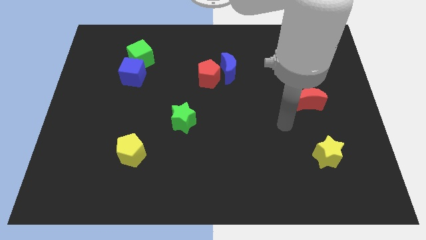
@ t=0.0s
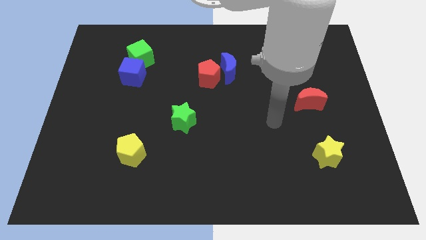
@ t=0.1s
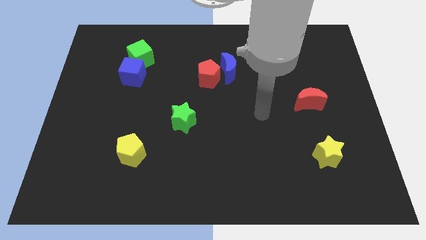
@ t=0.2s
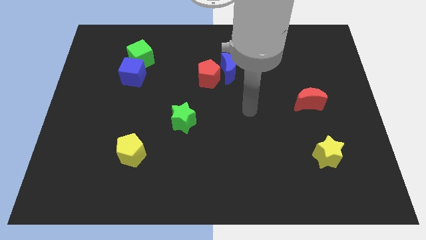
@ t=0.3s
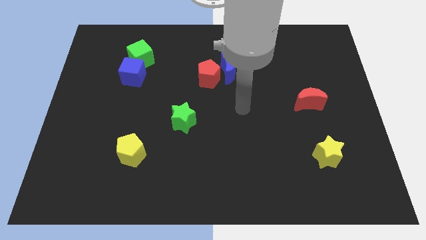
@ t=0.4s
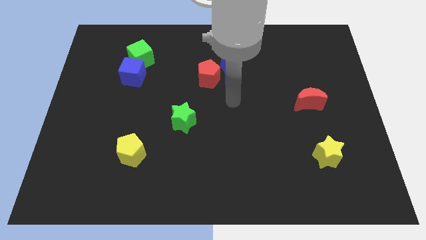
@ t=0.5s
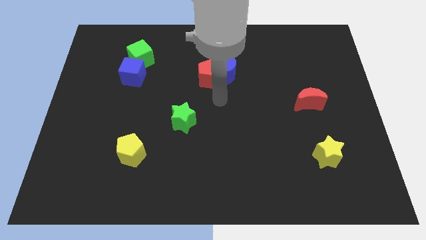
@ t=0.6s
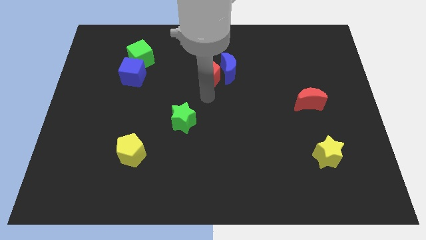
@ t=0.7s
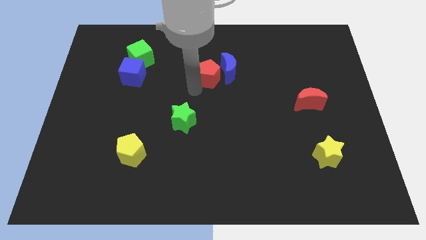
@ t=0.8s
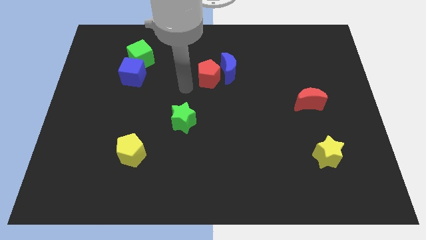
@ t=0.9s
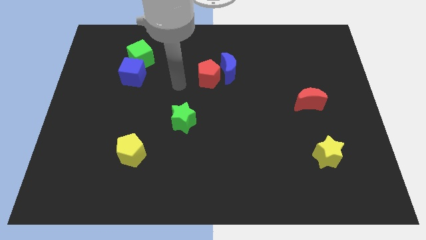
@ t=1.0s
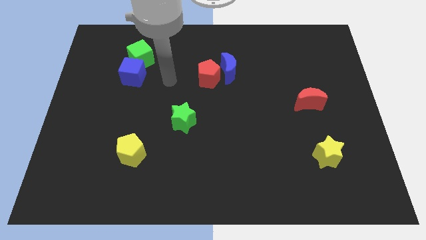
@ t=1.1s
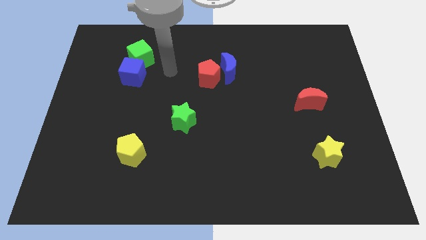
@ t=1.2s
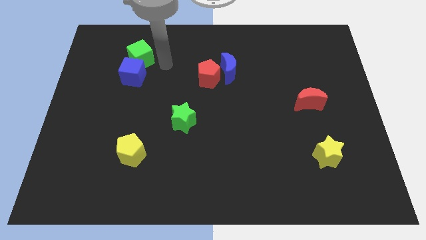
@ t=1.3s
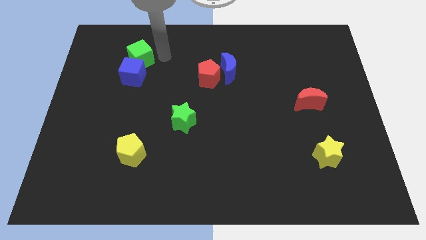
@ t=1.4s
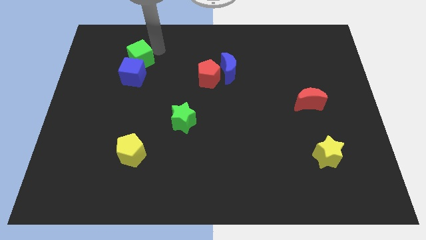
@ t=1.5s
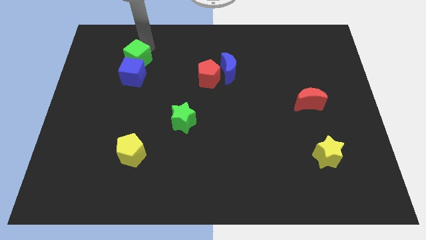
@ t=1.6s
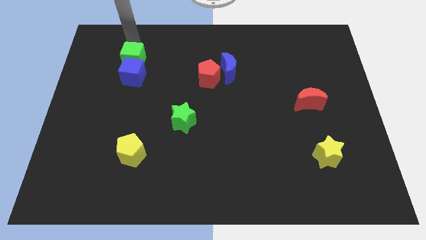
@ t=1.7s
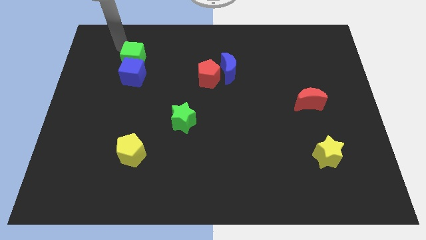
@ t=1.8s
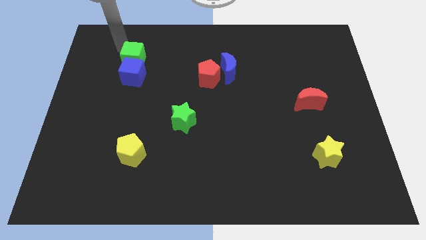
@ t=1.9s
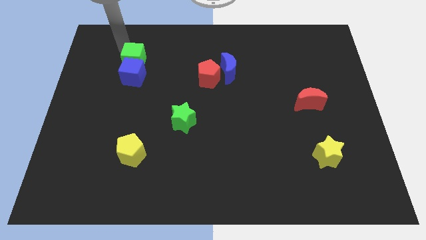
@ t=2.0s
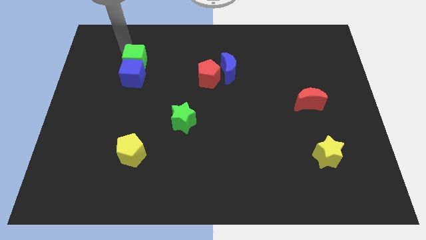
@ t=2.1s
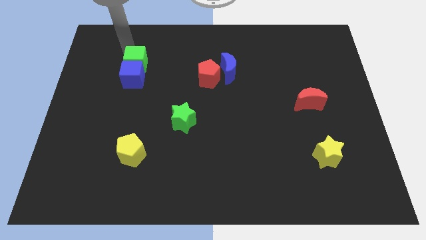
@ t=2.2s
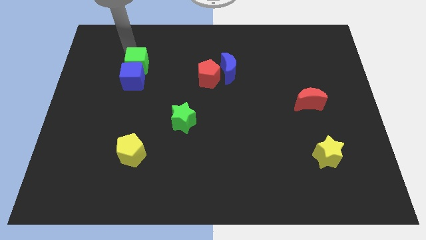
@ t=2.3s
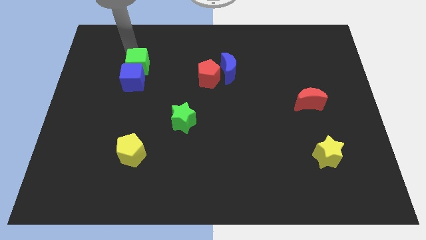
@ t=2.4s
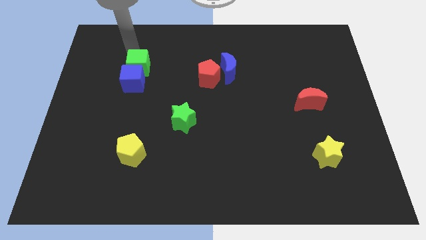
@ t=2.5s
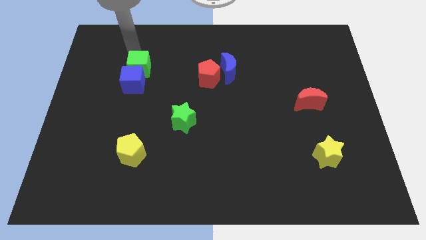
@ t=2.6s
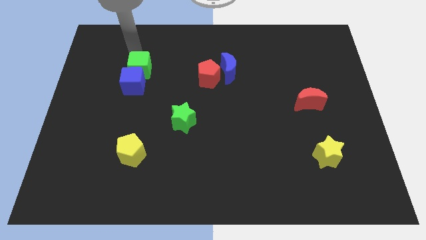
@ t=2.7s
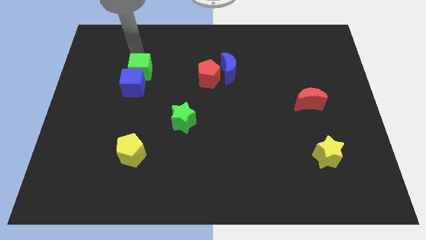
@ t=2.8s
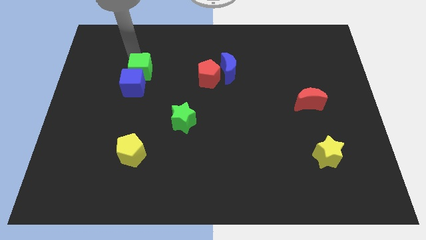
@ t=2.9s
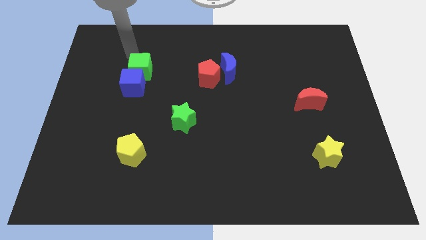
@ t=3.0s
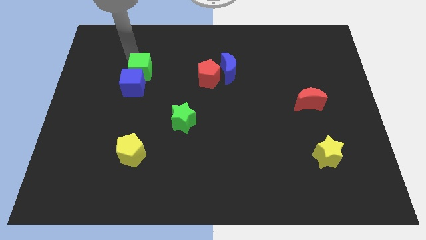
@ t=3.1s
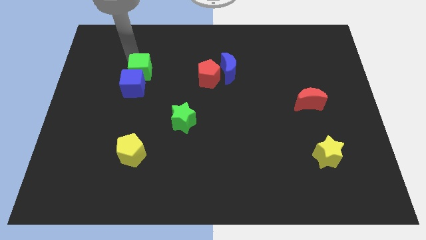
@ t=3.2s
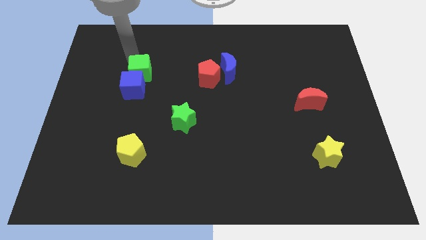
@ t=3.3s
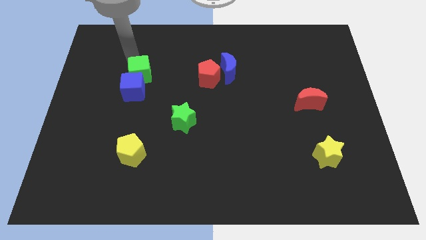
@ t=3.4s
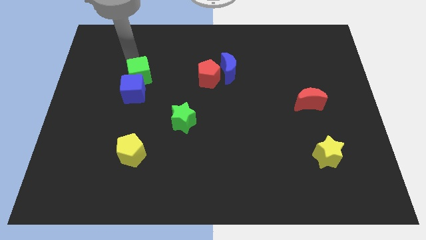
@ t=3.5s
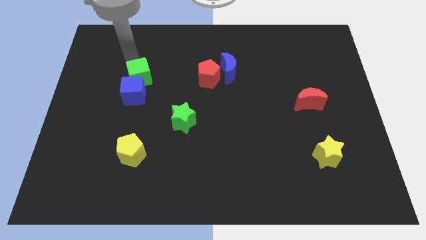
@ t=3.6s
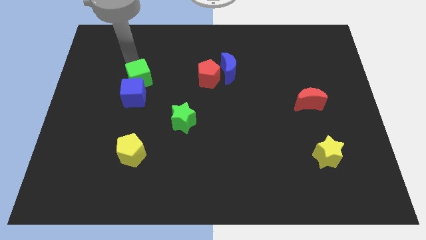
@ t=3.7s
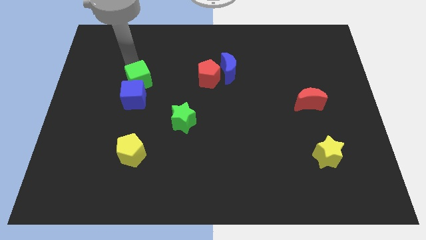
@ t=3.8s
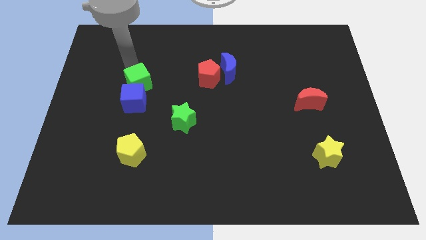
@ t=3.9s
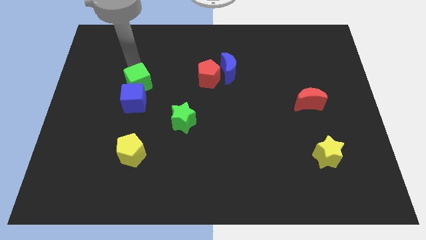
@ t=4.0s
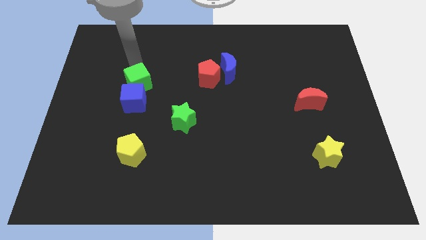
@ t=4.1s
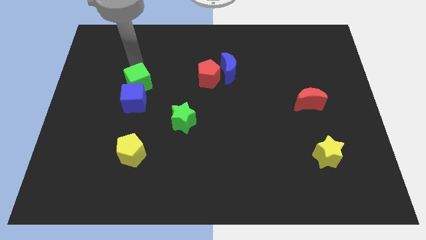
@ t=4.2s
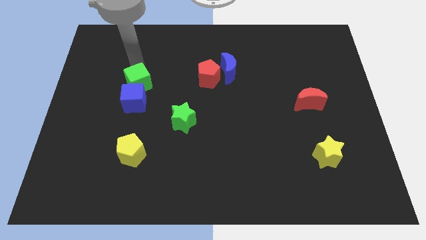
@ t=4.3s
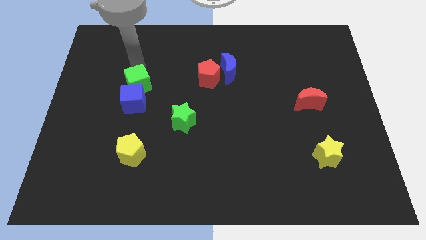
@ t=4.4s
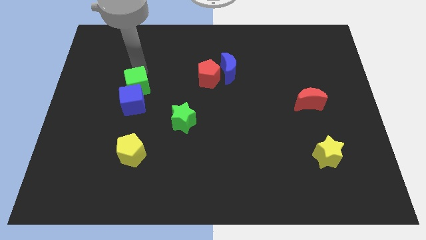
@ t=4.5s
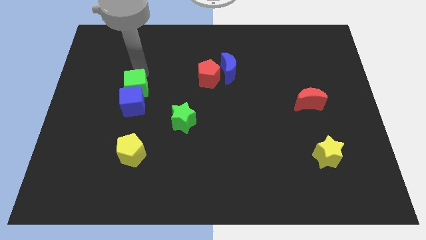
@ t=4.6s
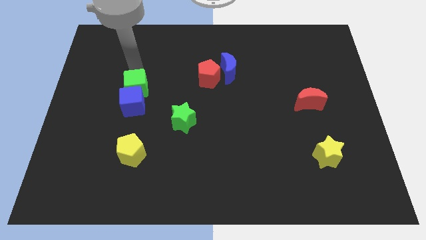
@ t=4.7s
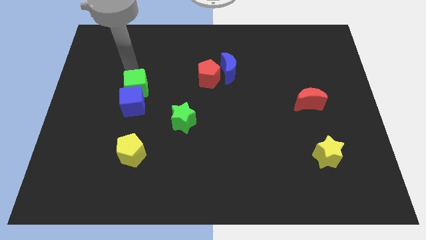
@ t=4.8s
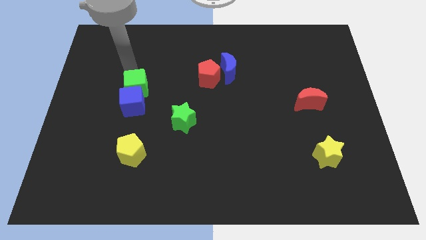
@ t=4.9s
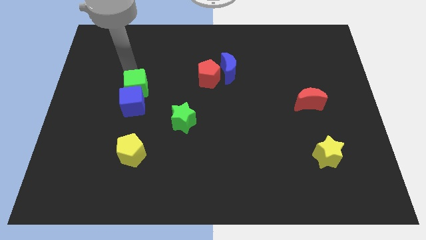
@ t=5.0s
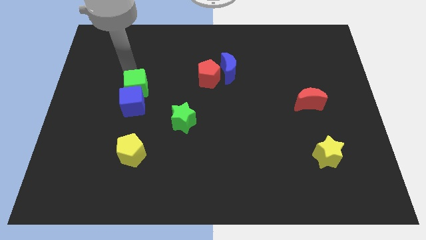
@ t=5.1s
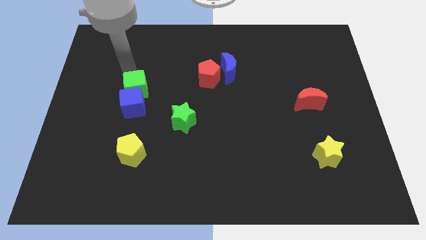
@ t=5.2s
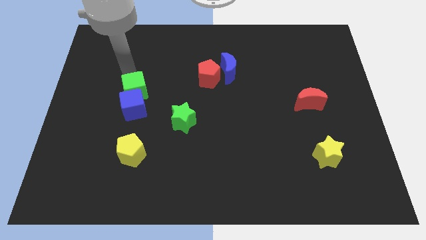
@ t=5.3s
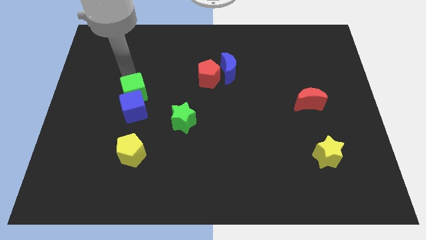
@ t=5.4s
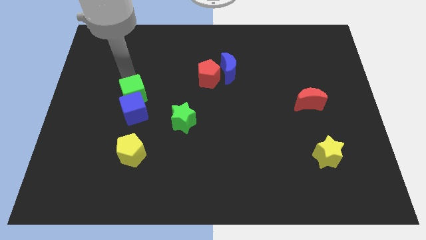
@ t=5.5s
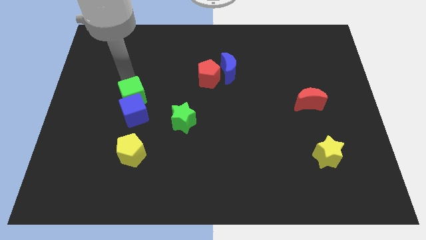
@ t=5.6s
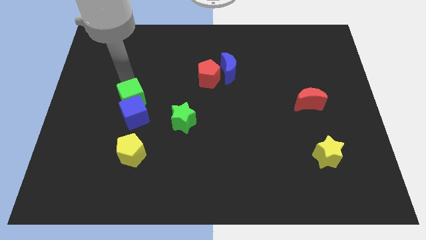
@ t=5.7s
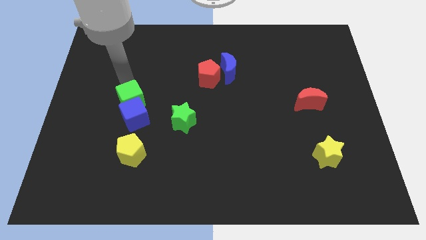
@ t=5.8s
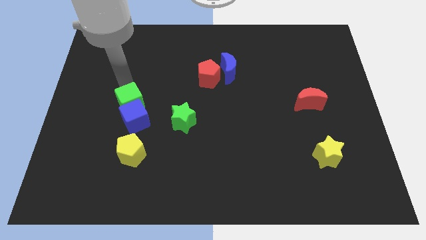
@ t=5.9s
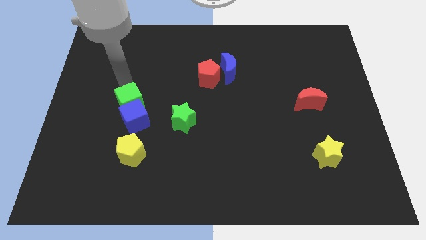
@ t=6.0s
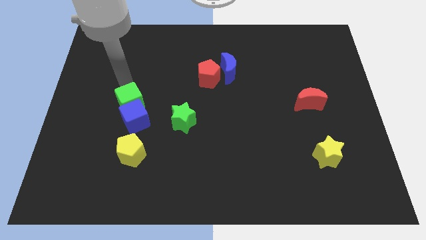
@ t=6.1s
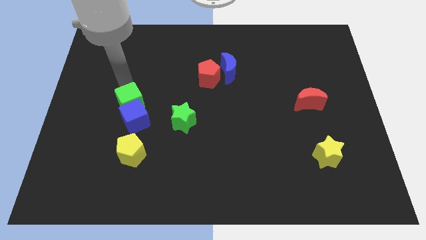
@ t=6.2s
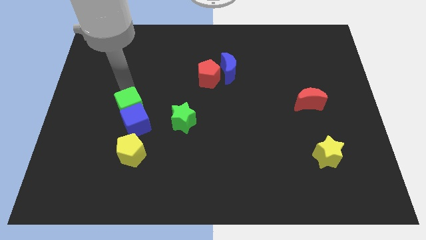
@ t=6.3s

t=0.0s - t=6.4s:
slide the green cube just left of the green star
